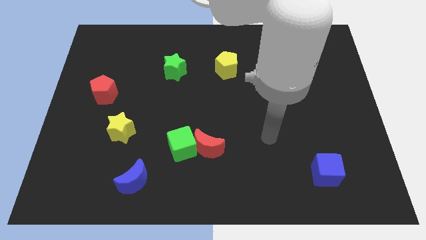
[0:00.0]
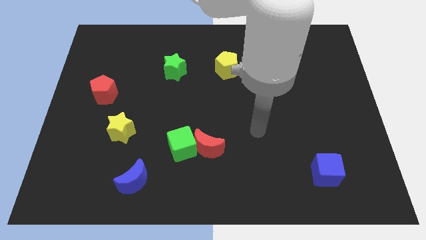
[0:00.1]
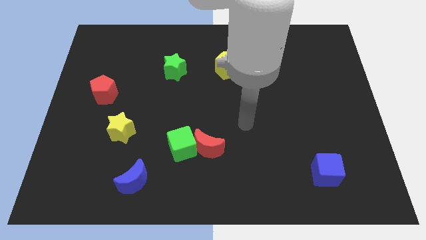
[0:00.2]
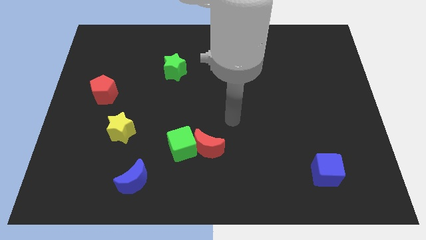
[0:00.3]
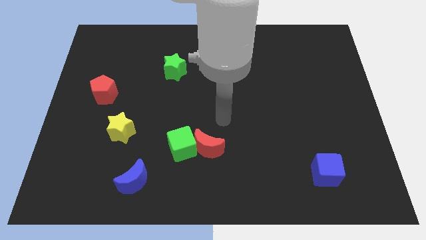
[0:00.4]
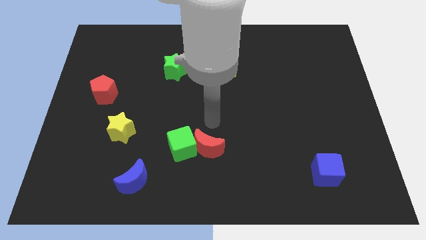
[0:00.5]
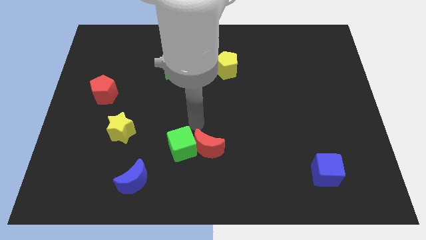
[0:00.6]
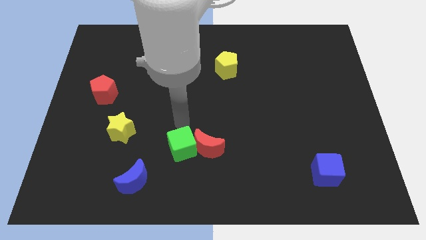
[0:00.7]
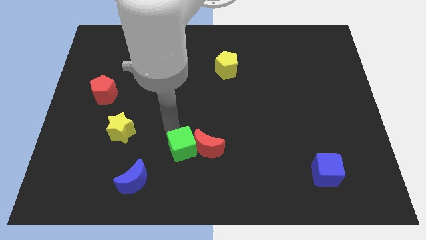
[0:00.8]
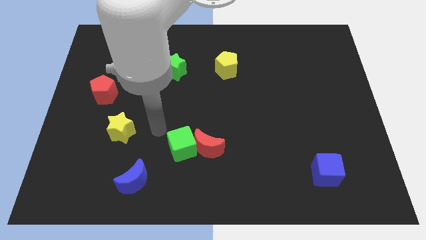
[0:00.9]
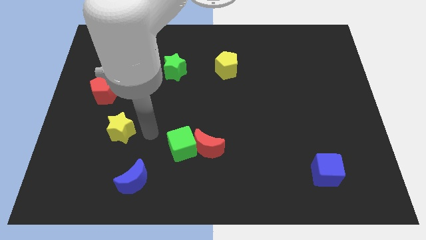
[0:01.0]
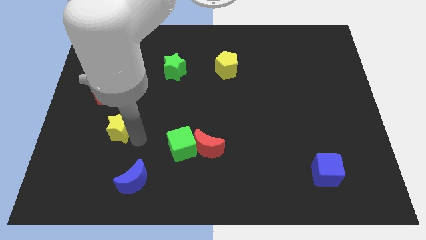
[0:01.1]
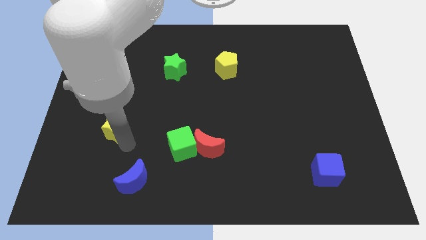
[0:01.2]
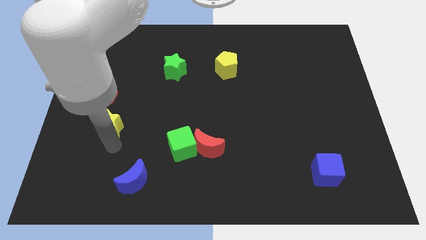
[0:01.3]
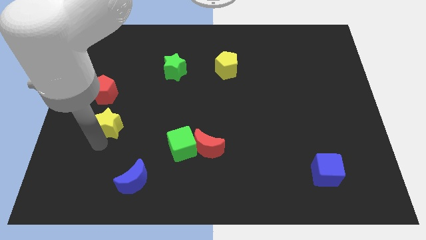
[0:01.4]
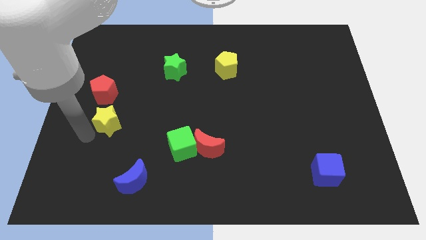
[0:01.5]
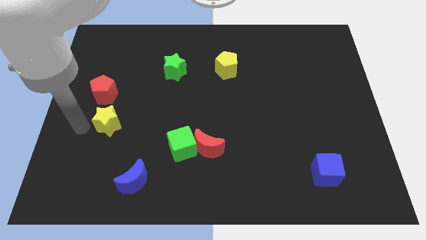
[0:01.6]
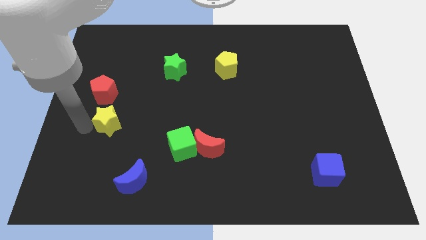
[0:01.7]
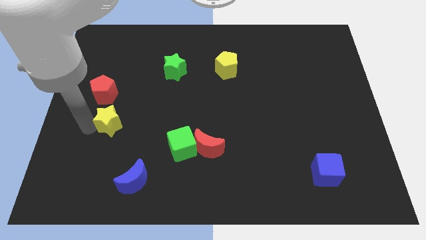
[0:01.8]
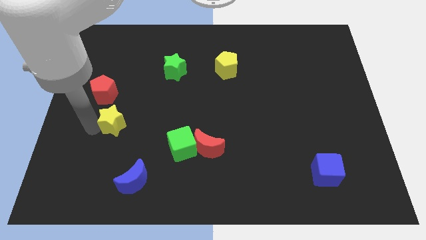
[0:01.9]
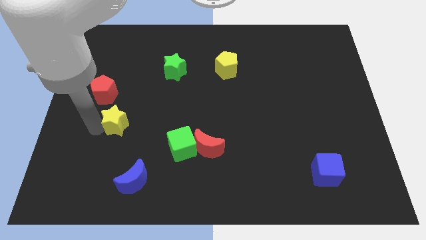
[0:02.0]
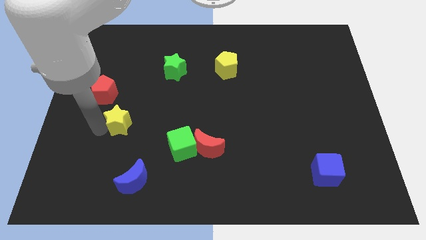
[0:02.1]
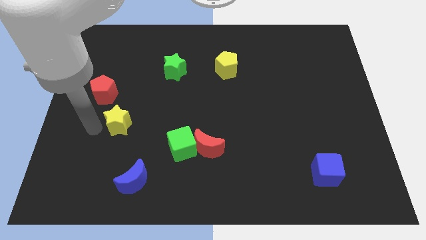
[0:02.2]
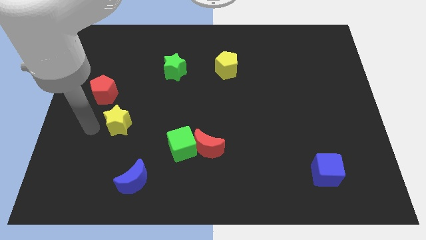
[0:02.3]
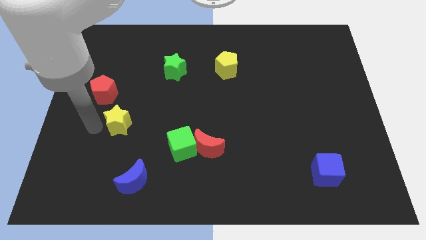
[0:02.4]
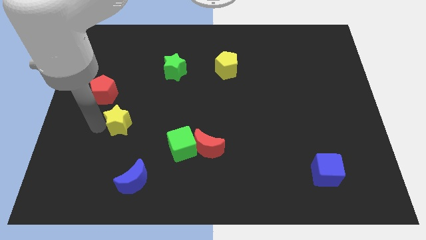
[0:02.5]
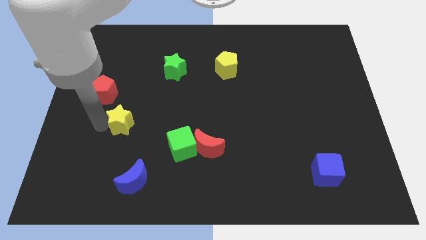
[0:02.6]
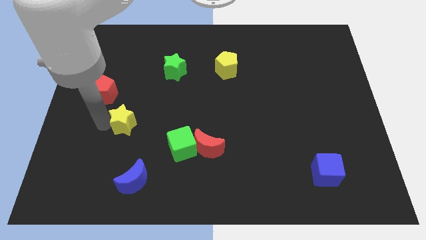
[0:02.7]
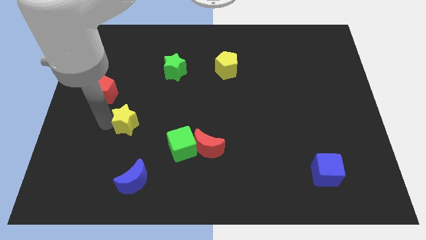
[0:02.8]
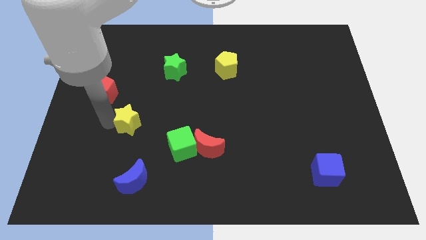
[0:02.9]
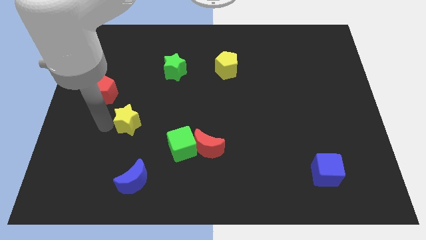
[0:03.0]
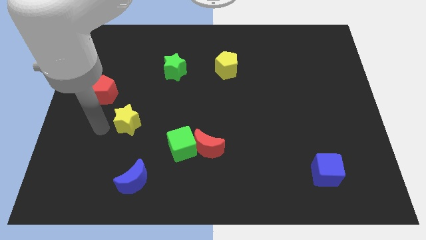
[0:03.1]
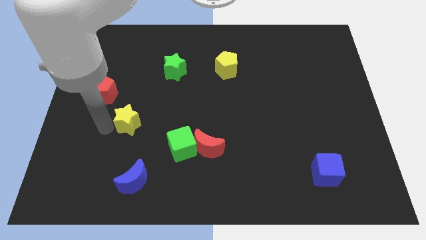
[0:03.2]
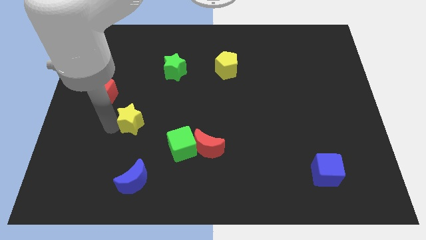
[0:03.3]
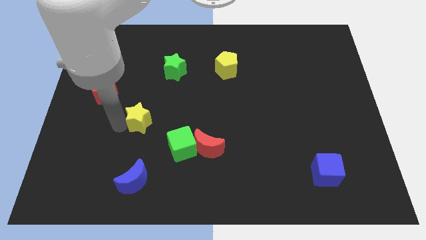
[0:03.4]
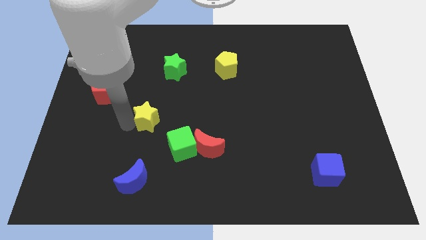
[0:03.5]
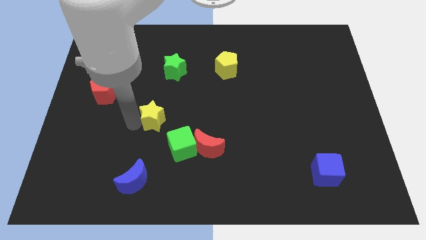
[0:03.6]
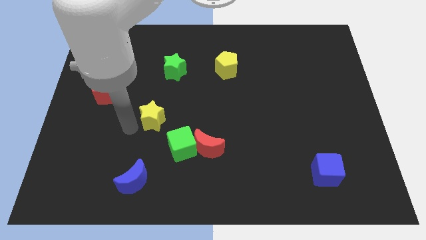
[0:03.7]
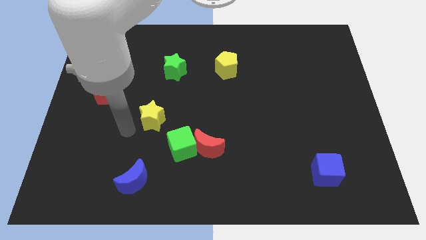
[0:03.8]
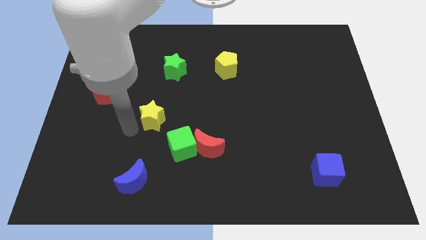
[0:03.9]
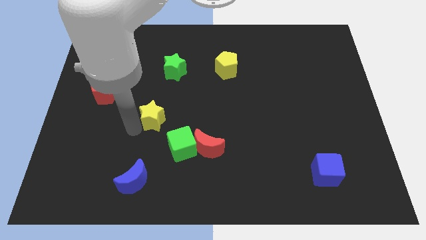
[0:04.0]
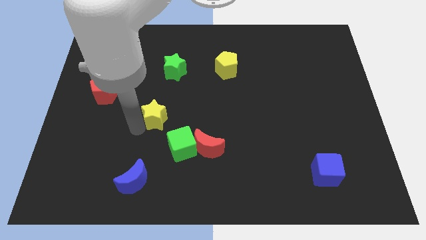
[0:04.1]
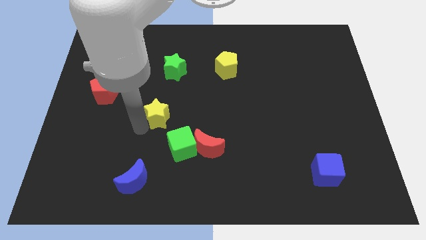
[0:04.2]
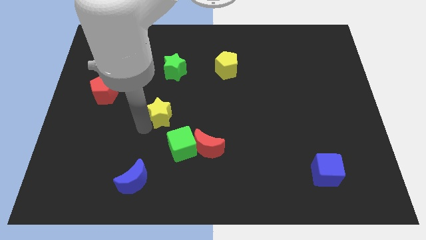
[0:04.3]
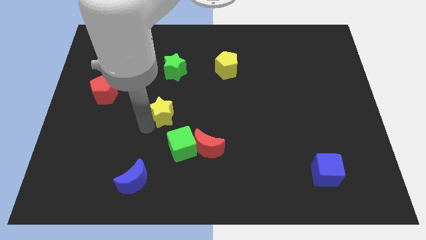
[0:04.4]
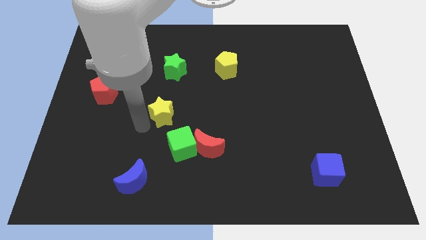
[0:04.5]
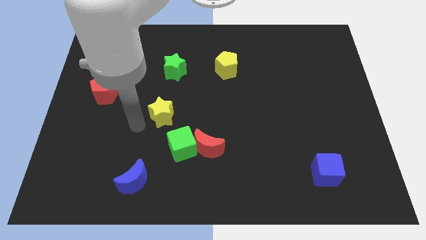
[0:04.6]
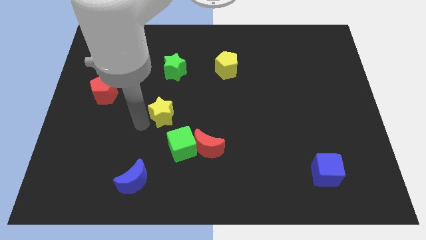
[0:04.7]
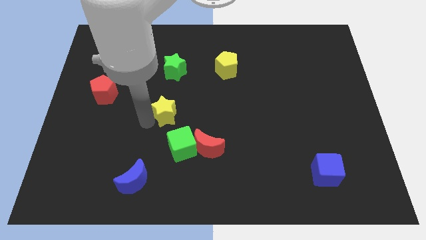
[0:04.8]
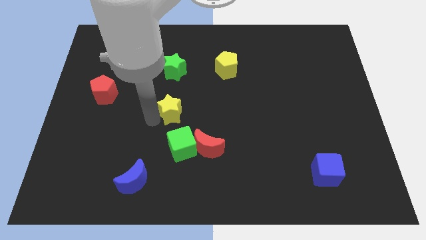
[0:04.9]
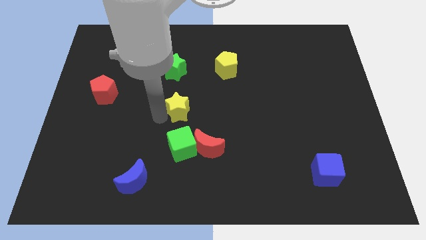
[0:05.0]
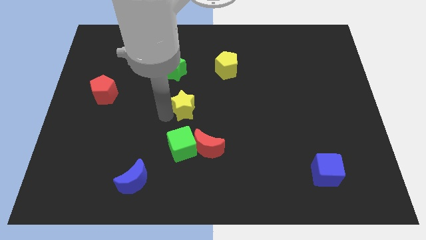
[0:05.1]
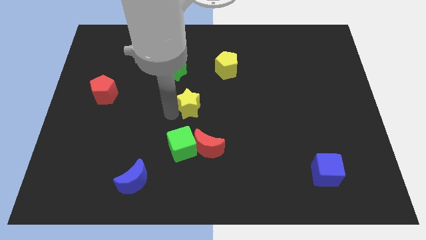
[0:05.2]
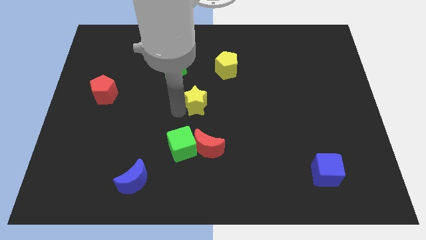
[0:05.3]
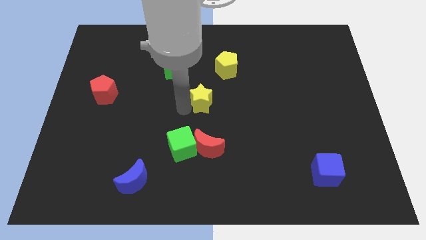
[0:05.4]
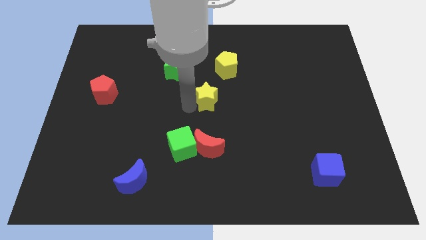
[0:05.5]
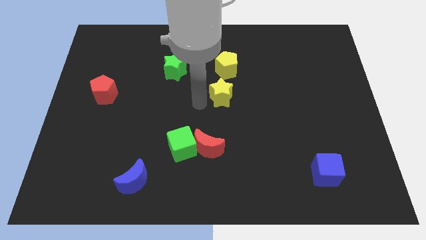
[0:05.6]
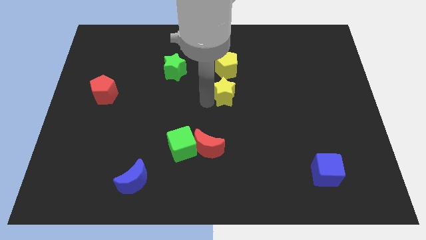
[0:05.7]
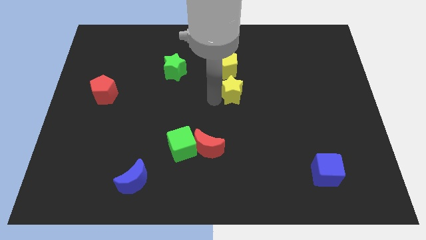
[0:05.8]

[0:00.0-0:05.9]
push the yellow star to the bottom right side of the yellow pentagon

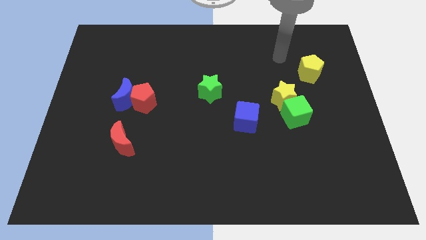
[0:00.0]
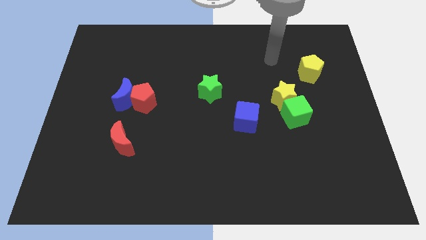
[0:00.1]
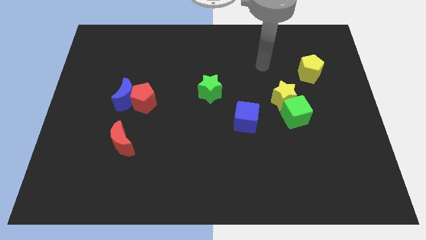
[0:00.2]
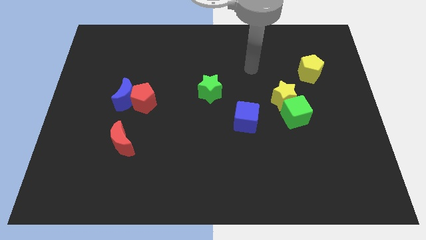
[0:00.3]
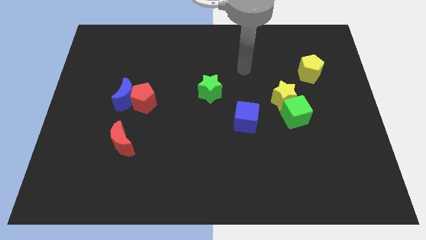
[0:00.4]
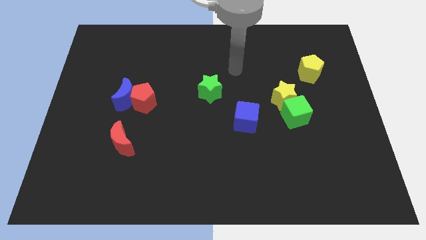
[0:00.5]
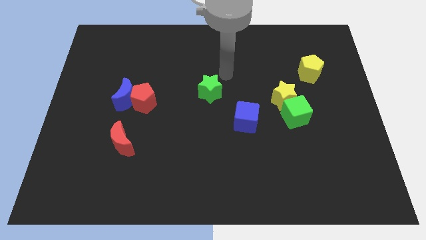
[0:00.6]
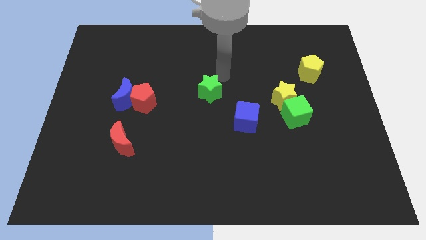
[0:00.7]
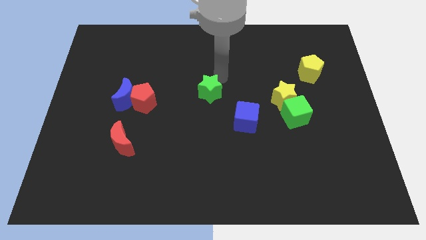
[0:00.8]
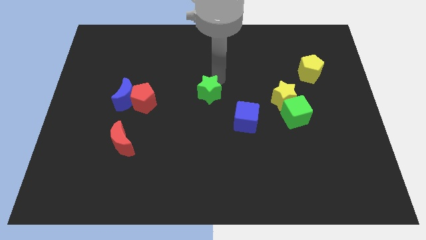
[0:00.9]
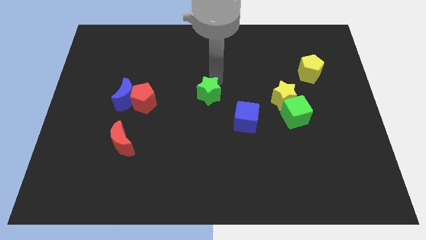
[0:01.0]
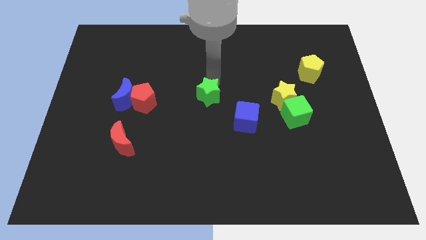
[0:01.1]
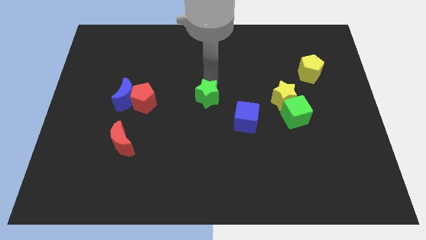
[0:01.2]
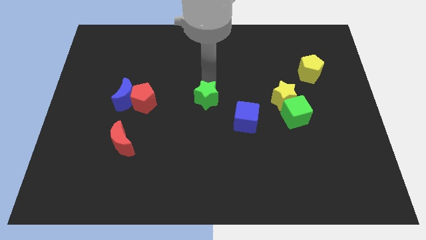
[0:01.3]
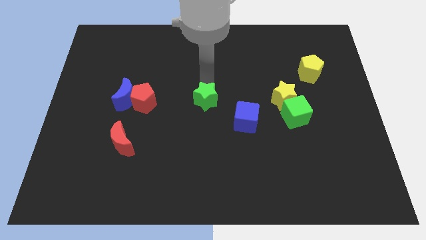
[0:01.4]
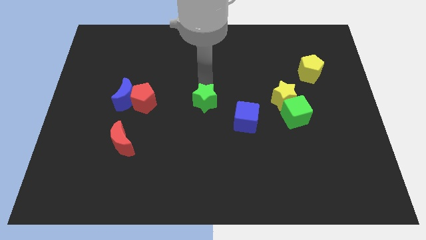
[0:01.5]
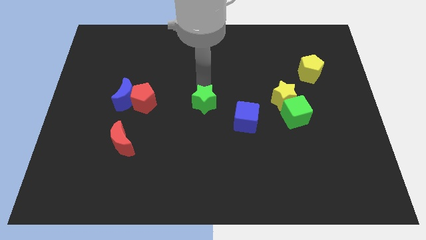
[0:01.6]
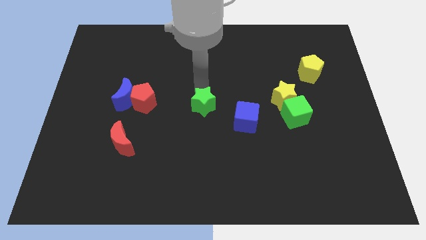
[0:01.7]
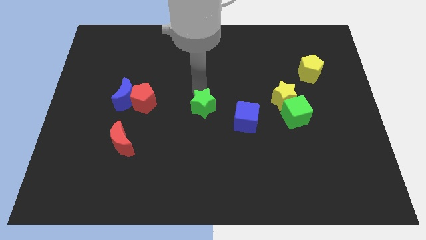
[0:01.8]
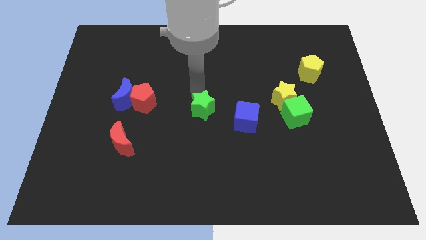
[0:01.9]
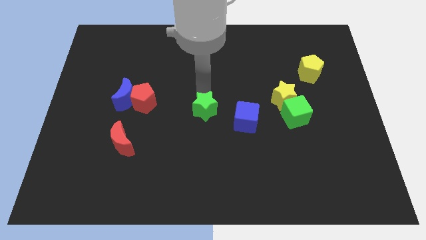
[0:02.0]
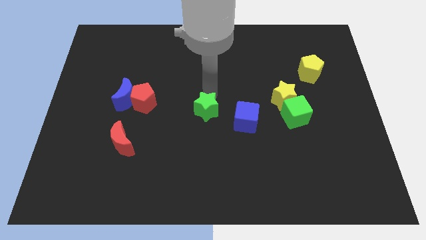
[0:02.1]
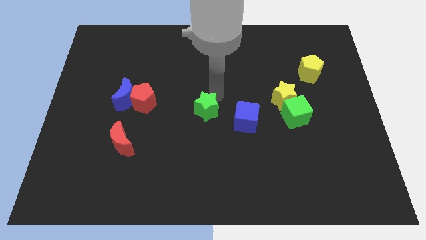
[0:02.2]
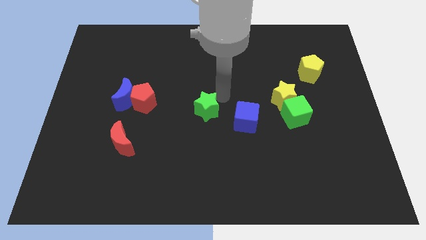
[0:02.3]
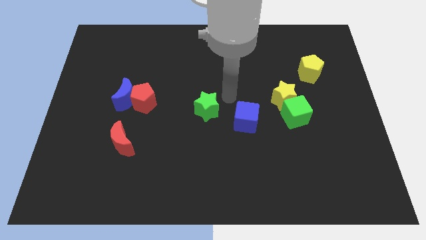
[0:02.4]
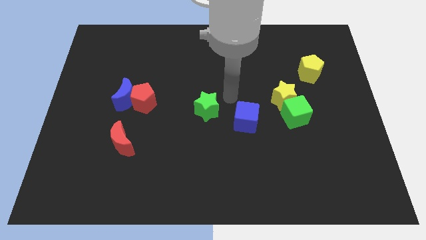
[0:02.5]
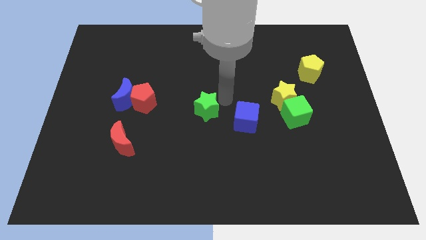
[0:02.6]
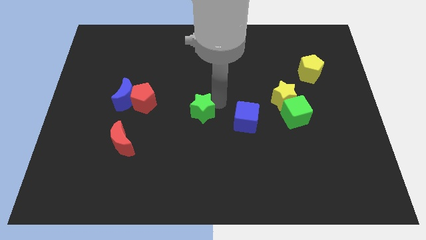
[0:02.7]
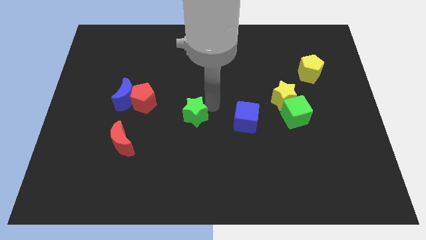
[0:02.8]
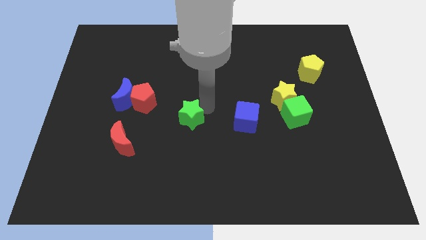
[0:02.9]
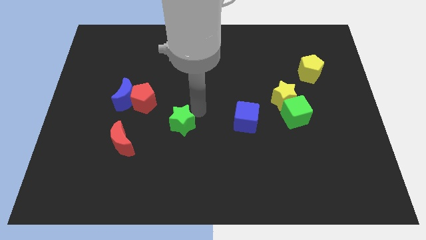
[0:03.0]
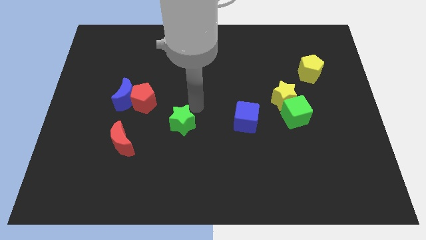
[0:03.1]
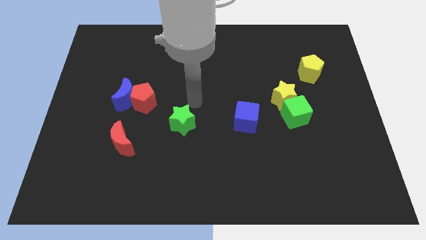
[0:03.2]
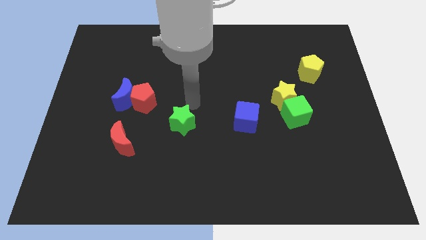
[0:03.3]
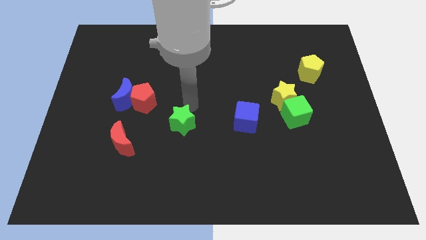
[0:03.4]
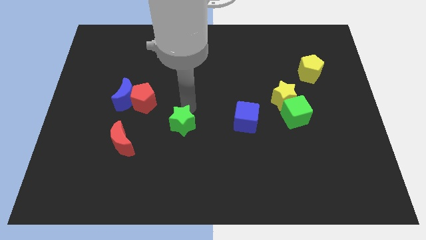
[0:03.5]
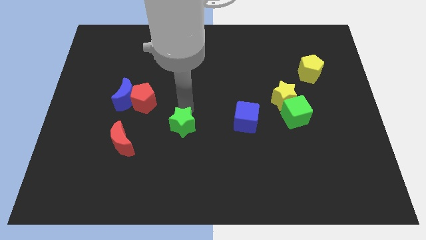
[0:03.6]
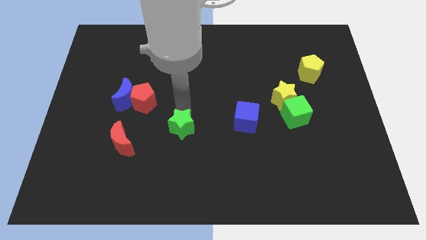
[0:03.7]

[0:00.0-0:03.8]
slide the green star right of the red moon
